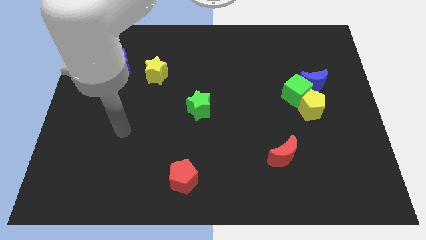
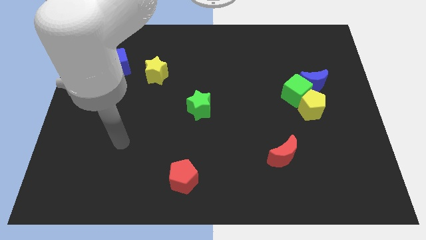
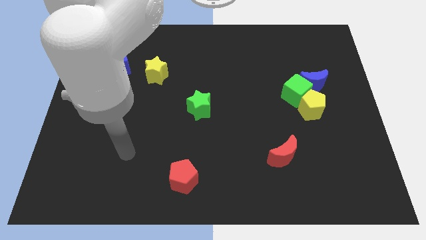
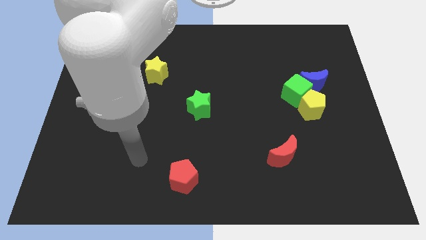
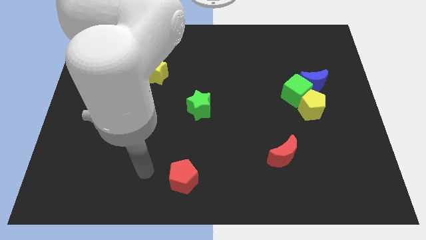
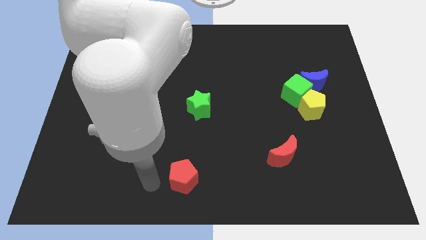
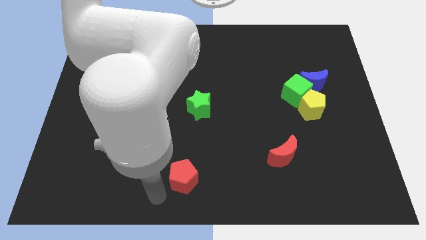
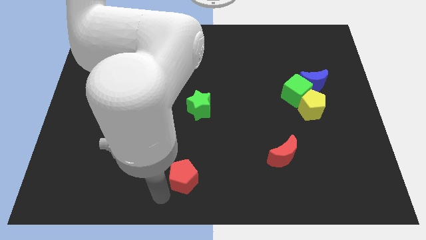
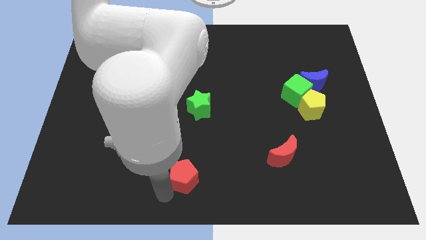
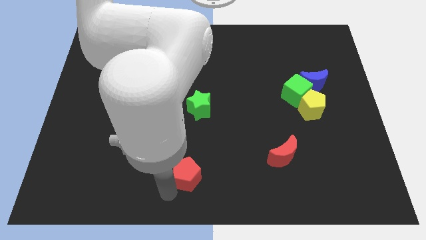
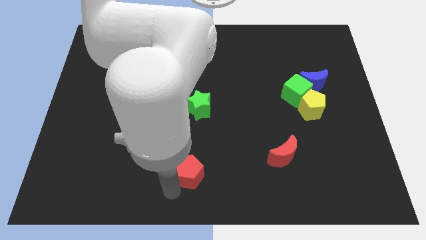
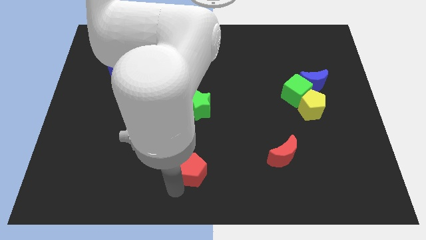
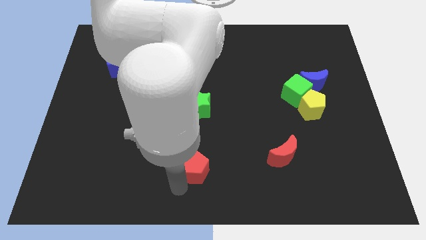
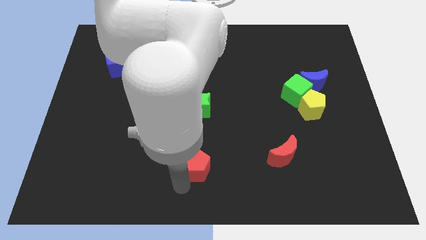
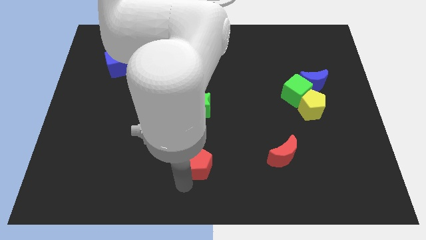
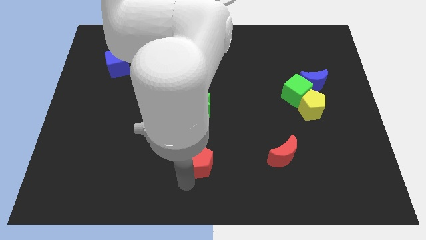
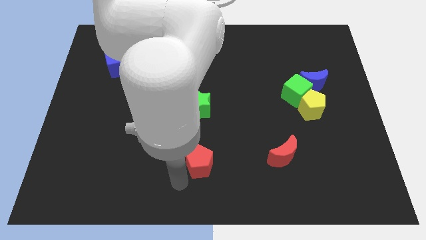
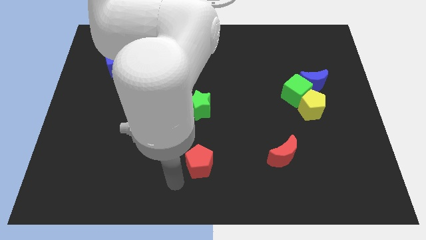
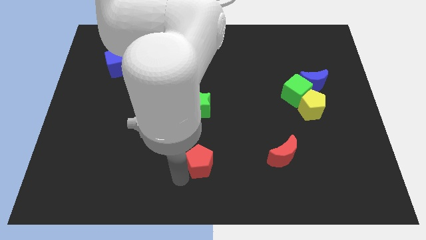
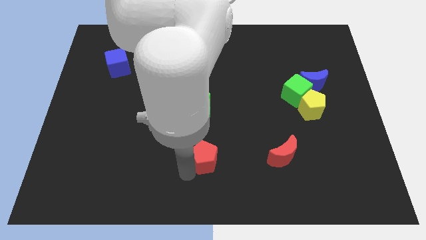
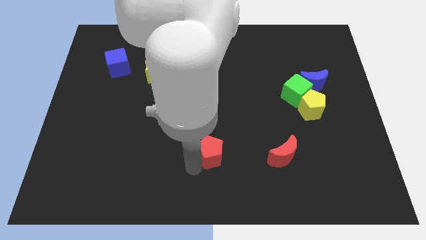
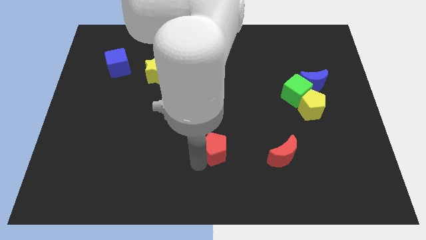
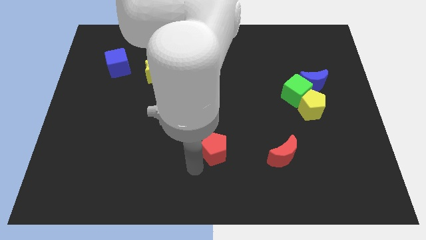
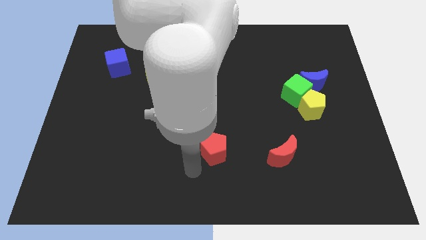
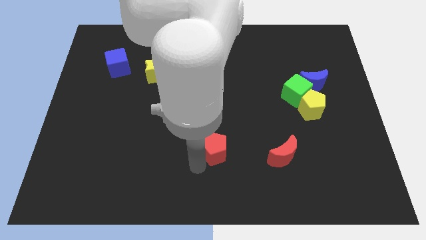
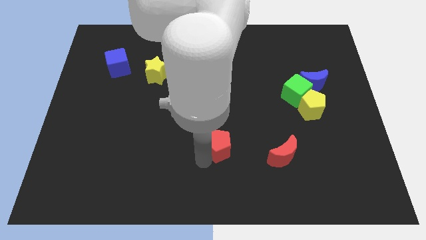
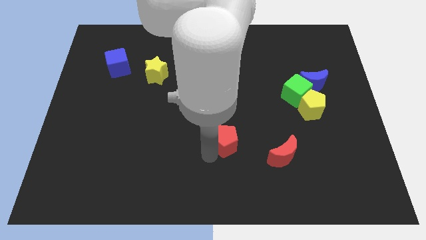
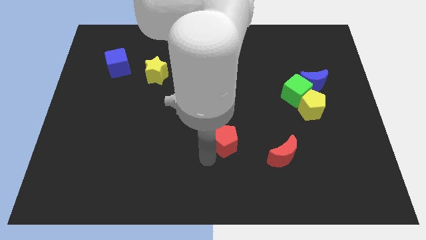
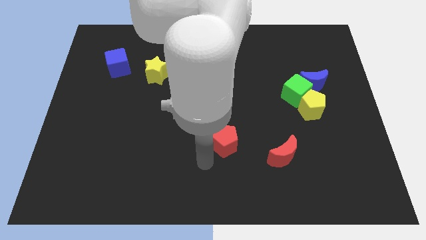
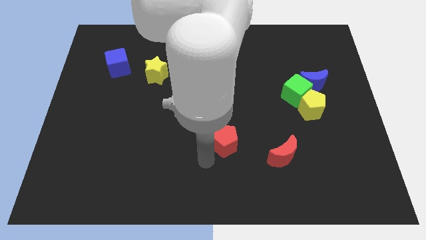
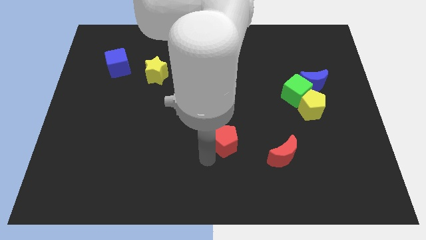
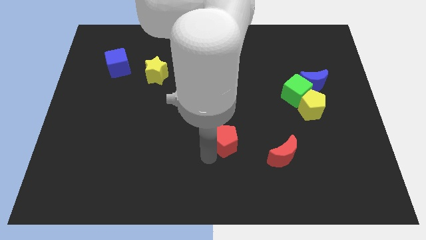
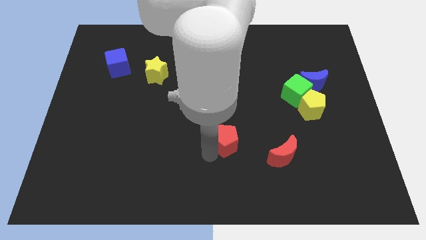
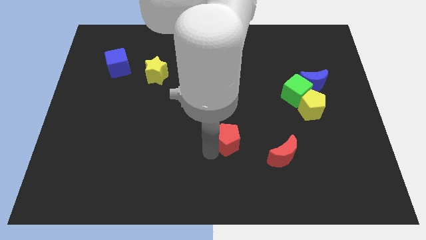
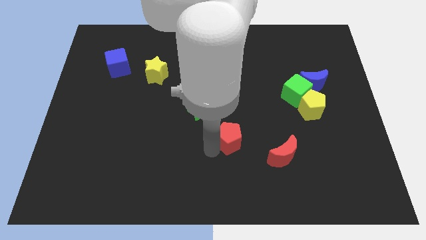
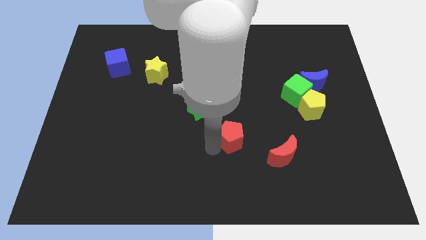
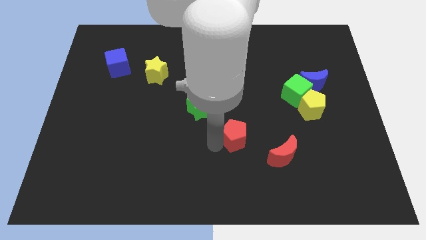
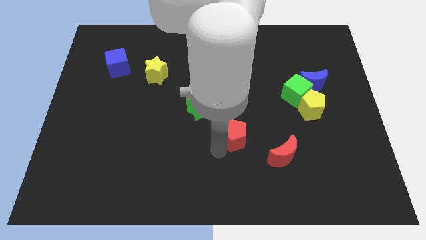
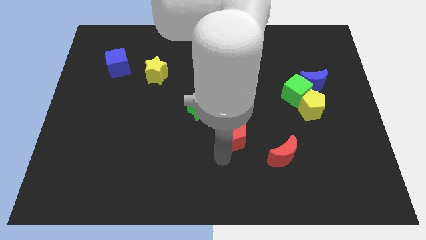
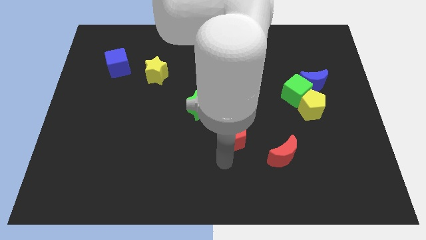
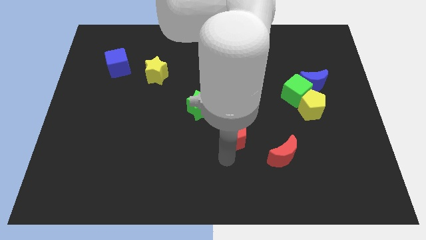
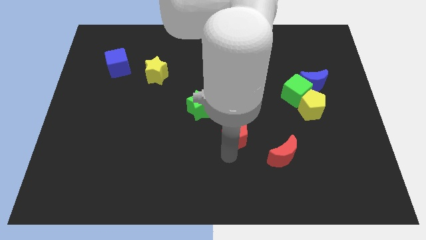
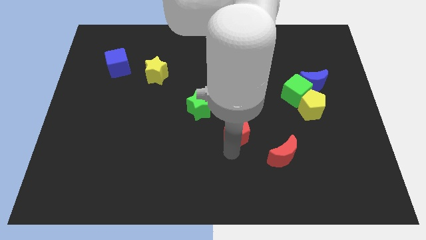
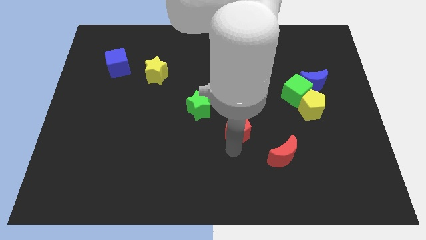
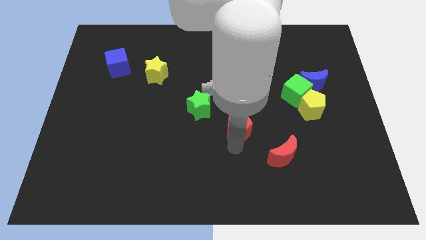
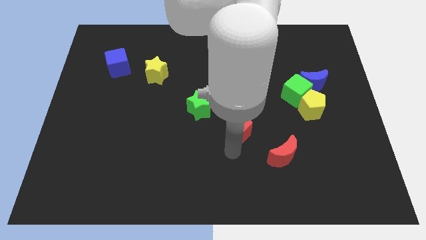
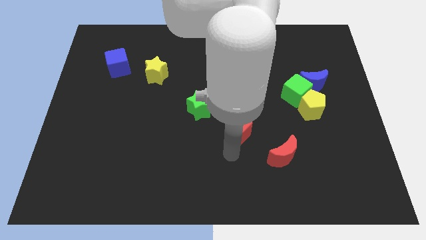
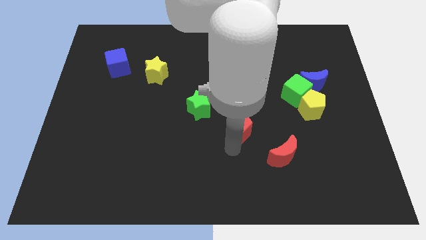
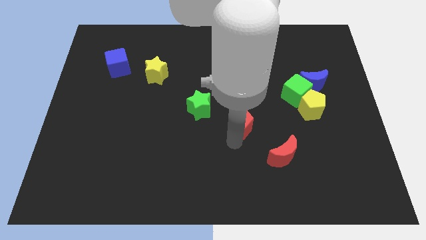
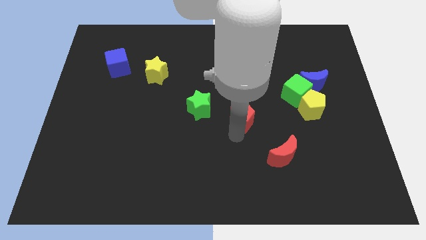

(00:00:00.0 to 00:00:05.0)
slide the red pentagon right of the green star

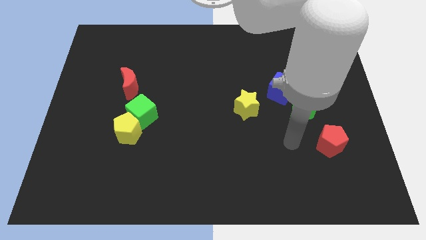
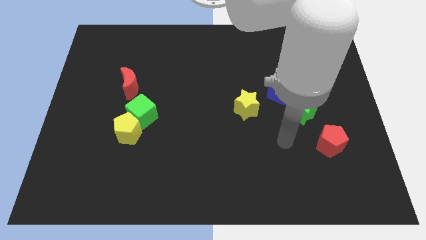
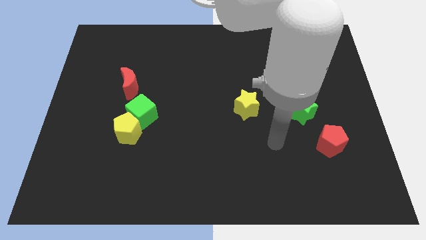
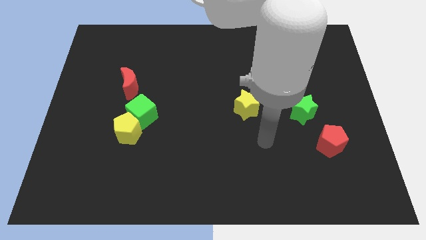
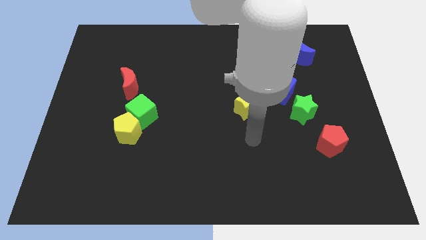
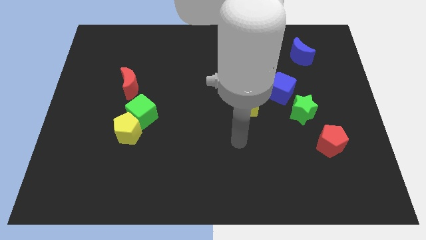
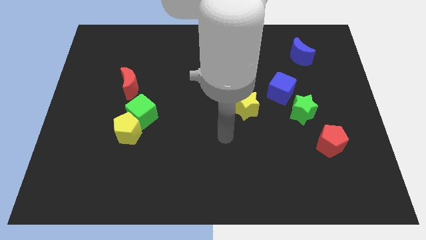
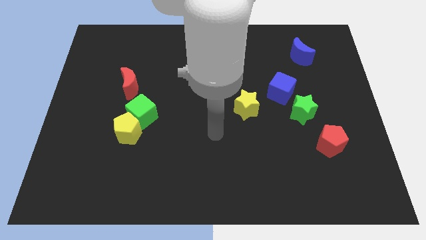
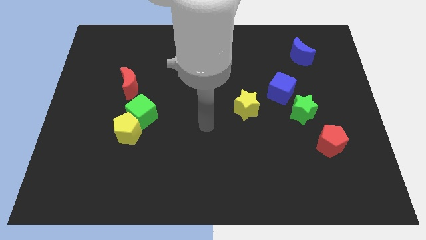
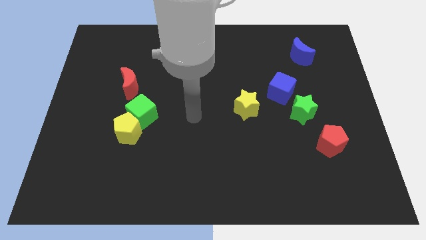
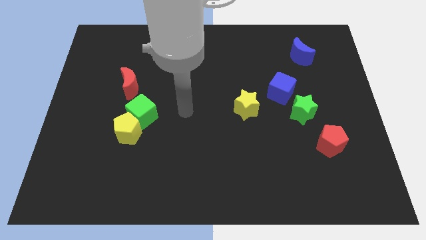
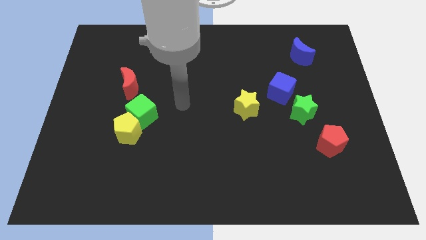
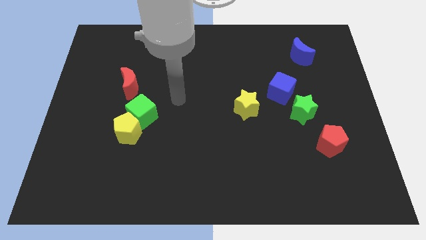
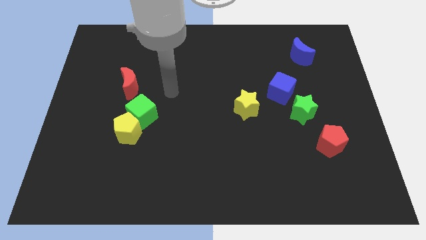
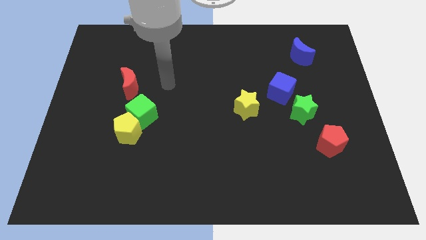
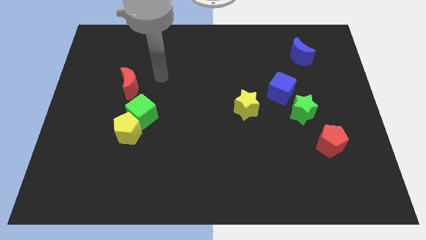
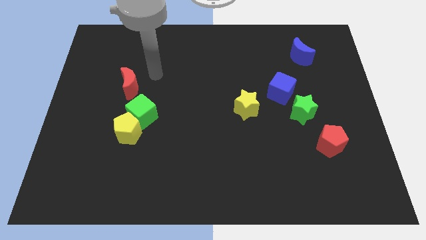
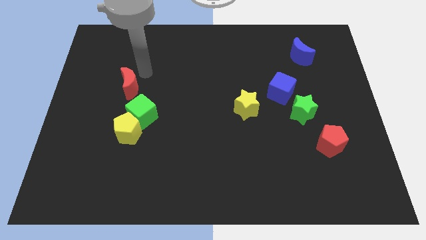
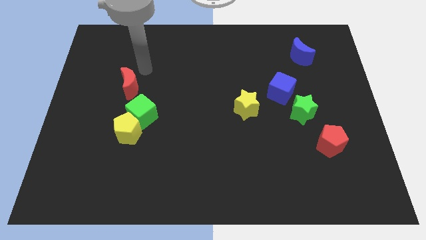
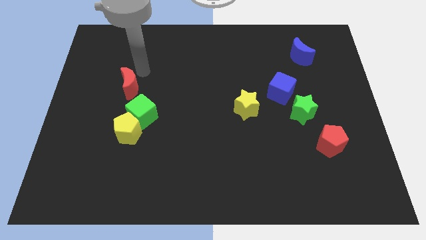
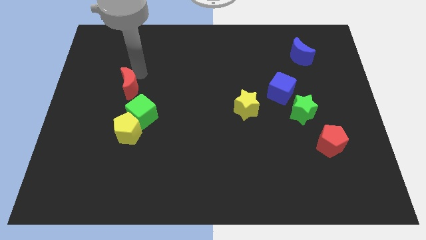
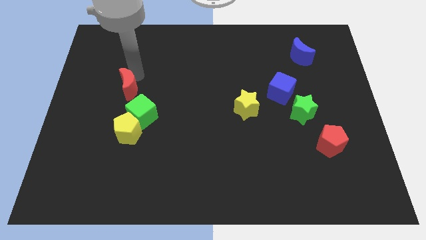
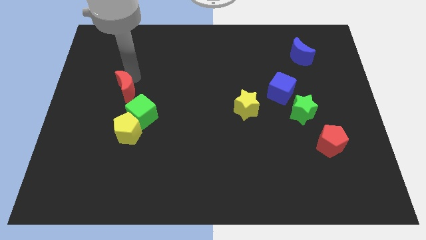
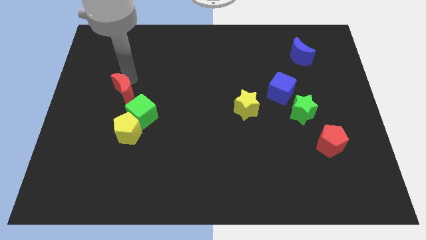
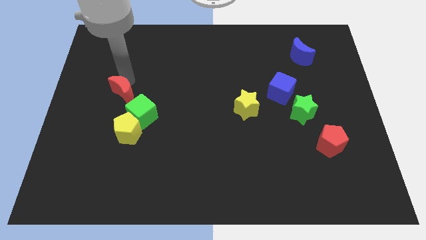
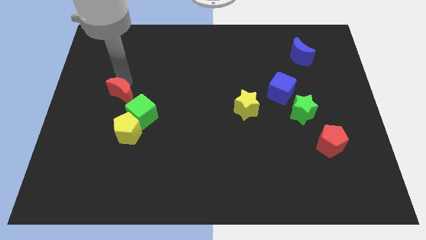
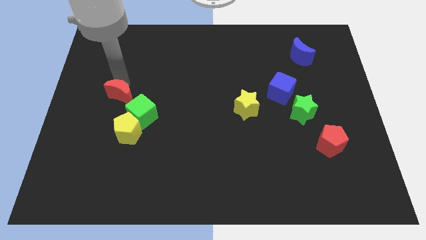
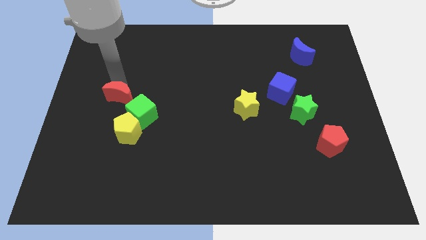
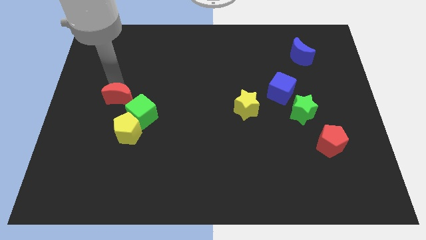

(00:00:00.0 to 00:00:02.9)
push the red moon diagonally up and to the left of the yellow pentagon
